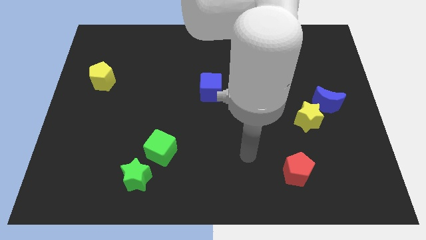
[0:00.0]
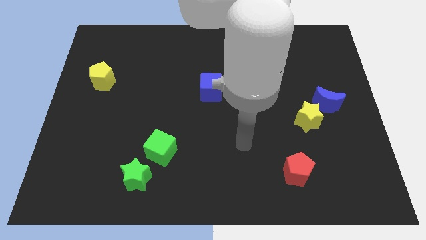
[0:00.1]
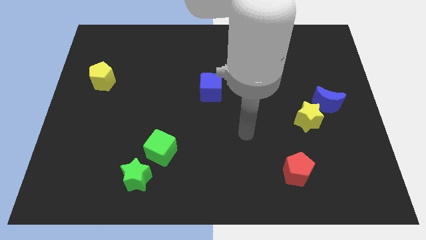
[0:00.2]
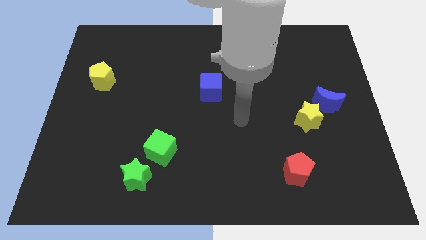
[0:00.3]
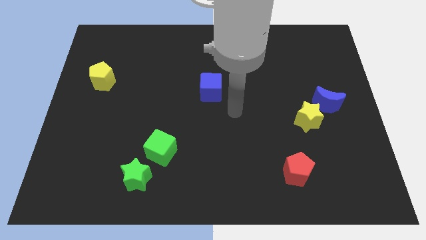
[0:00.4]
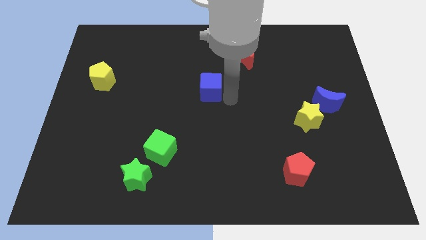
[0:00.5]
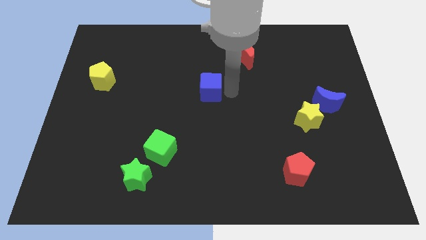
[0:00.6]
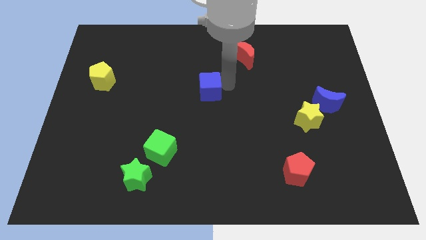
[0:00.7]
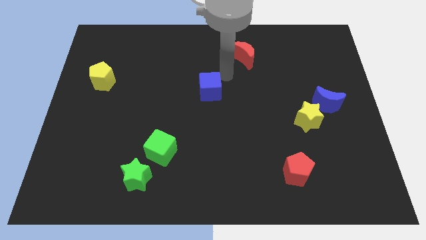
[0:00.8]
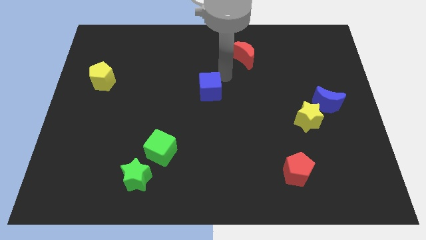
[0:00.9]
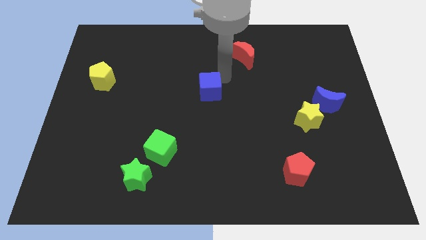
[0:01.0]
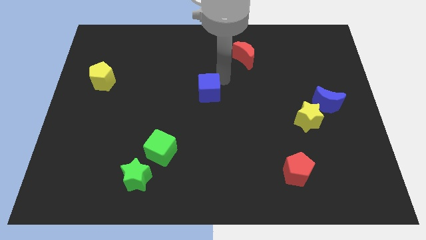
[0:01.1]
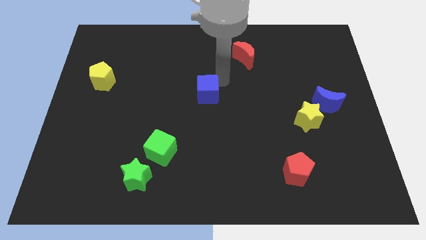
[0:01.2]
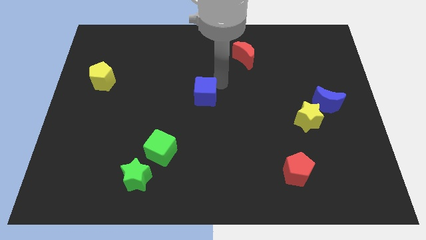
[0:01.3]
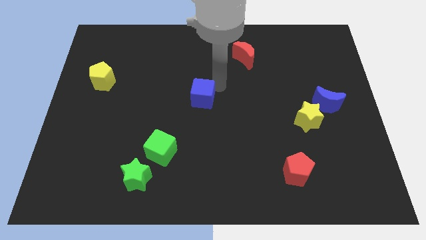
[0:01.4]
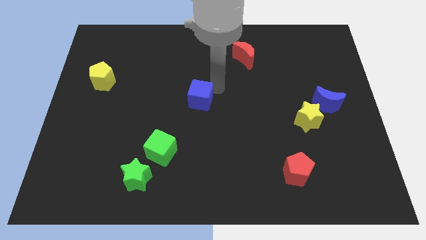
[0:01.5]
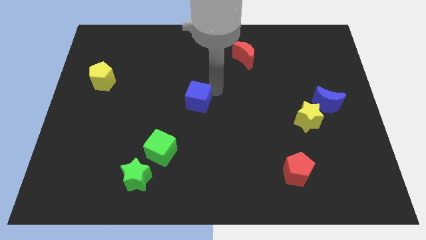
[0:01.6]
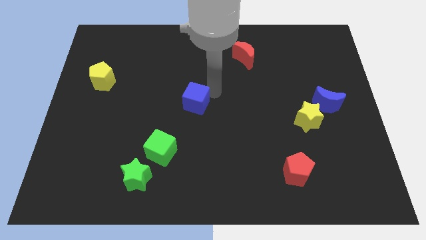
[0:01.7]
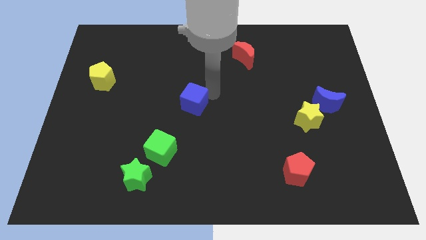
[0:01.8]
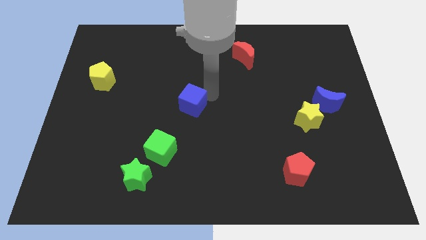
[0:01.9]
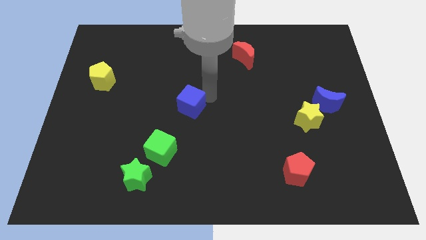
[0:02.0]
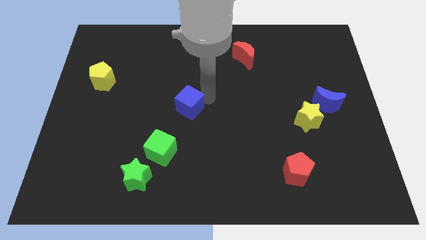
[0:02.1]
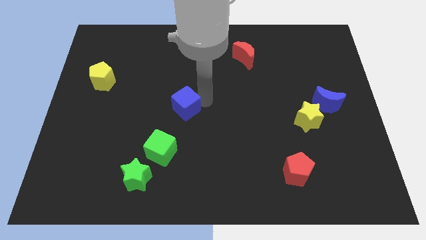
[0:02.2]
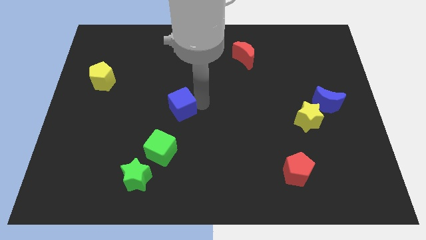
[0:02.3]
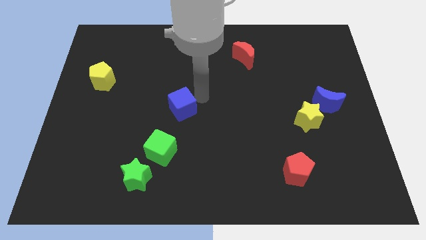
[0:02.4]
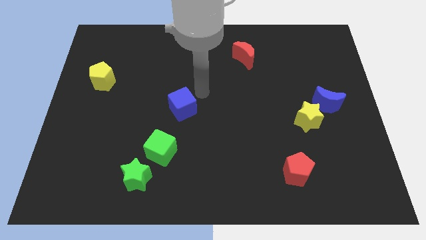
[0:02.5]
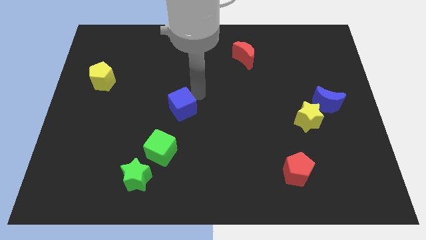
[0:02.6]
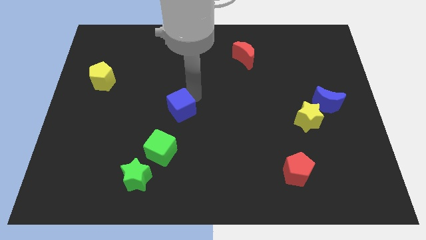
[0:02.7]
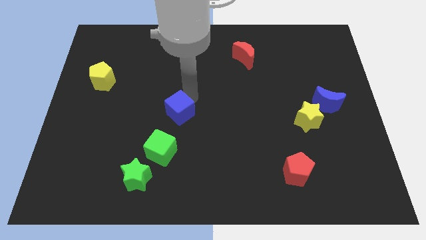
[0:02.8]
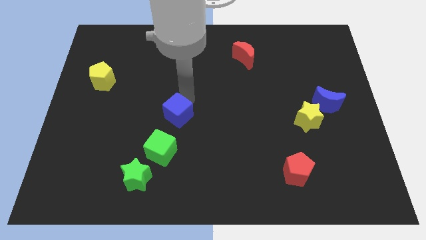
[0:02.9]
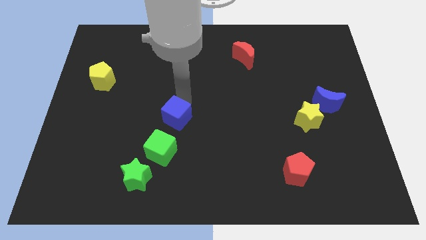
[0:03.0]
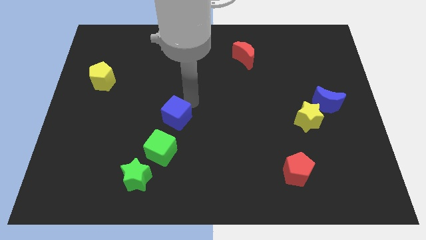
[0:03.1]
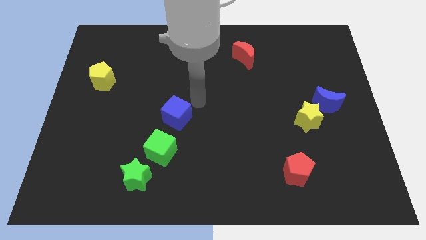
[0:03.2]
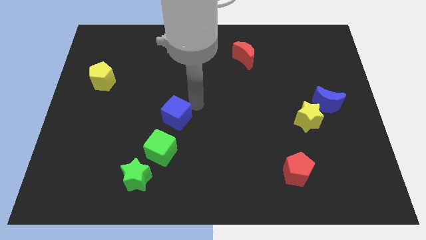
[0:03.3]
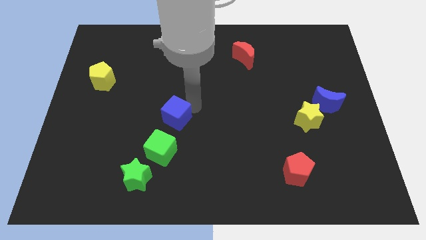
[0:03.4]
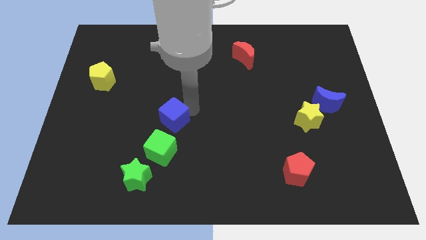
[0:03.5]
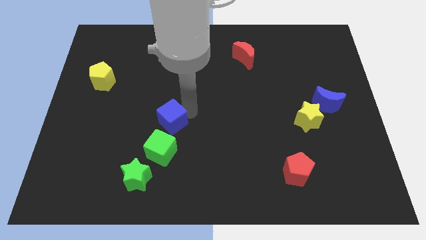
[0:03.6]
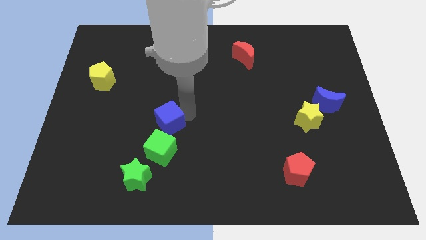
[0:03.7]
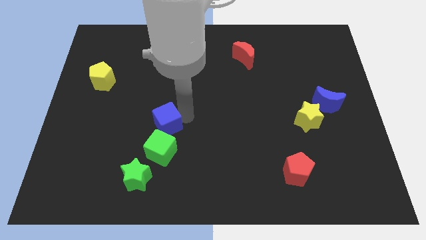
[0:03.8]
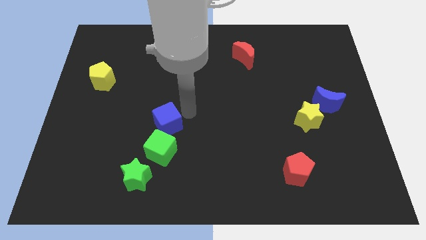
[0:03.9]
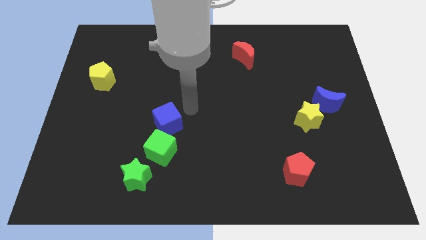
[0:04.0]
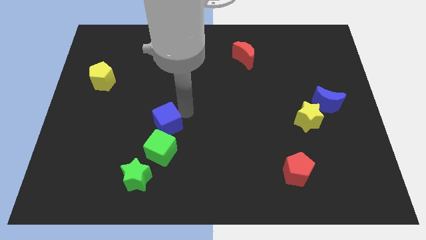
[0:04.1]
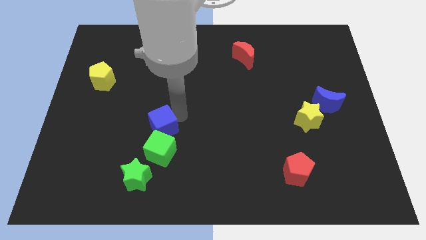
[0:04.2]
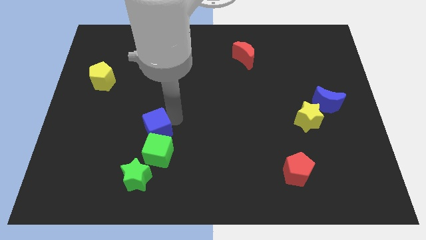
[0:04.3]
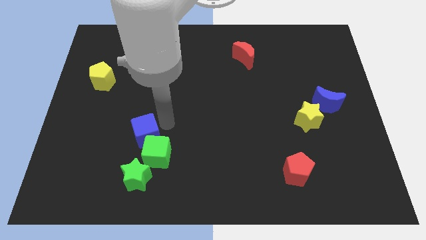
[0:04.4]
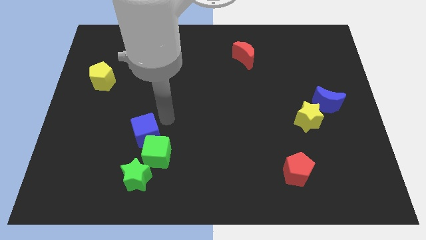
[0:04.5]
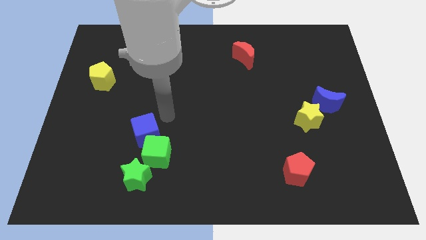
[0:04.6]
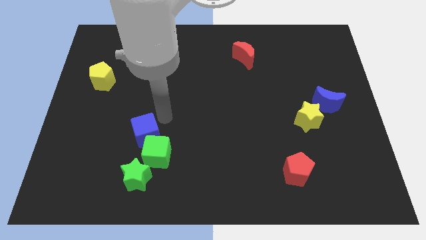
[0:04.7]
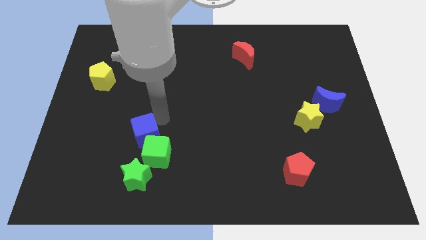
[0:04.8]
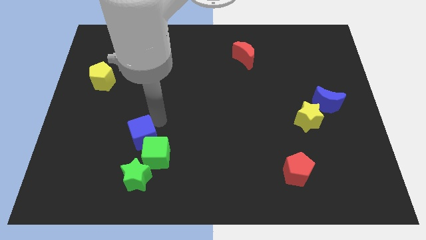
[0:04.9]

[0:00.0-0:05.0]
move the blue cube down and then left

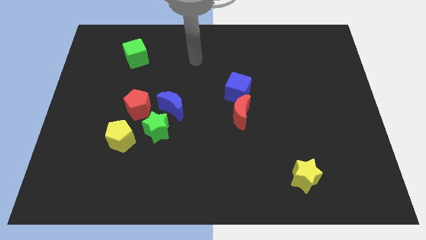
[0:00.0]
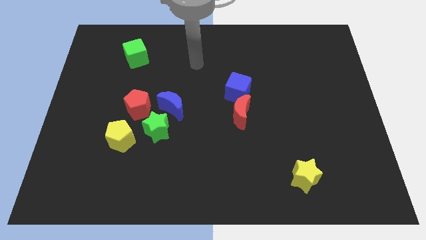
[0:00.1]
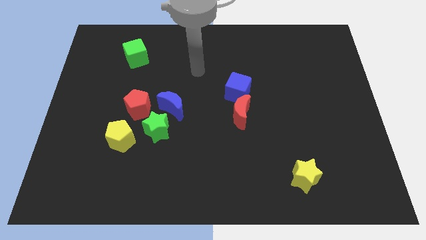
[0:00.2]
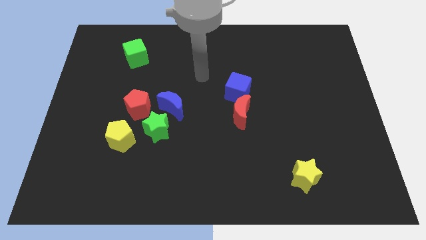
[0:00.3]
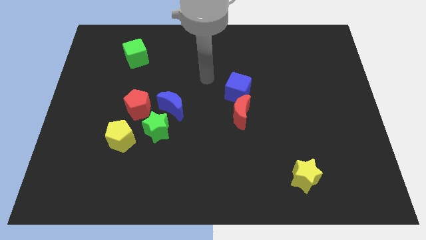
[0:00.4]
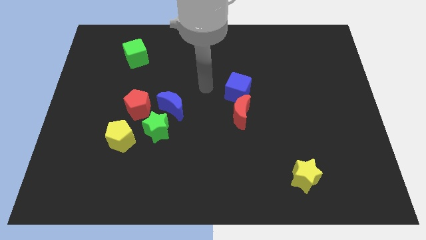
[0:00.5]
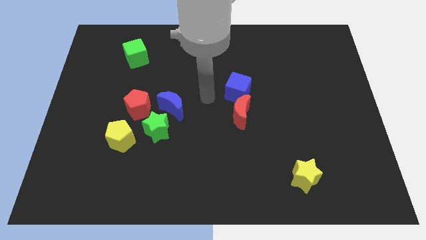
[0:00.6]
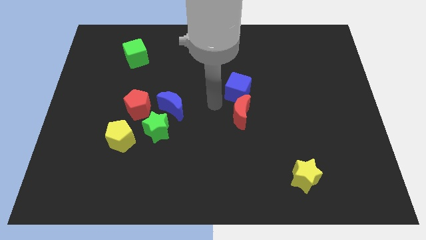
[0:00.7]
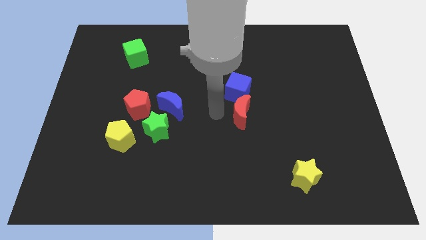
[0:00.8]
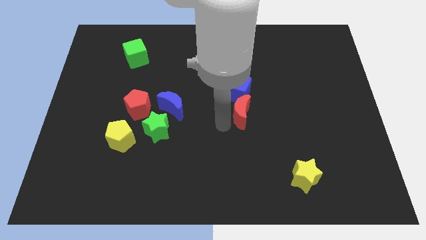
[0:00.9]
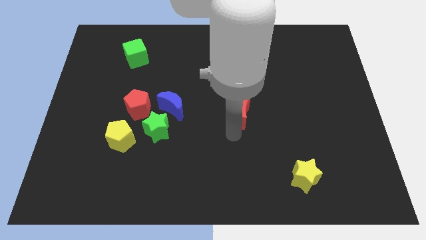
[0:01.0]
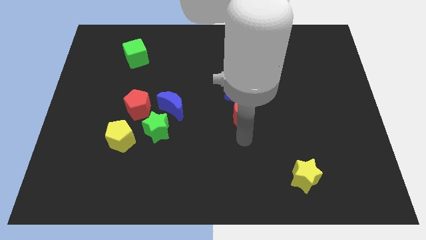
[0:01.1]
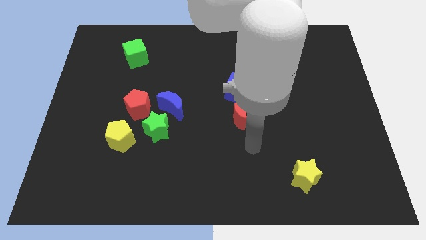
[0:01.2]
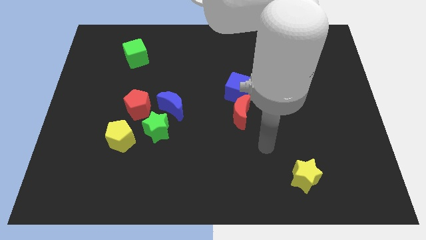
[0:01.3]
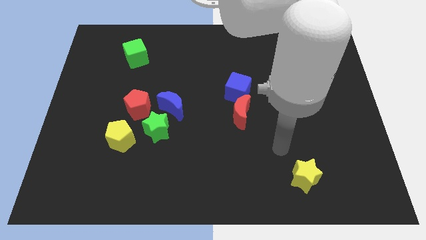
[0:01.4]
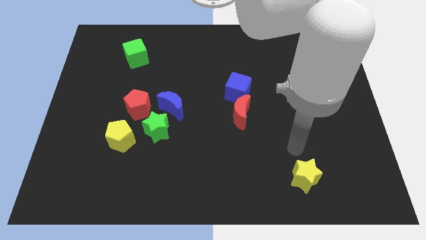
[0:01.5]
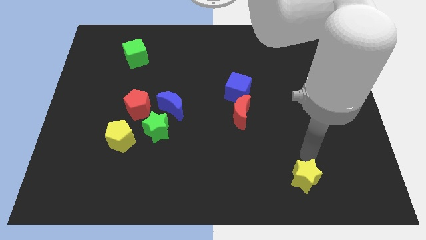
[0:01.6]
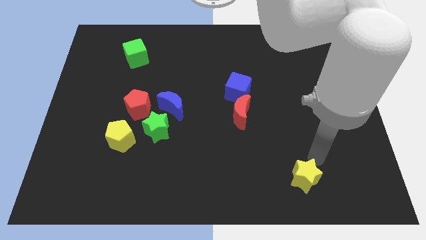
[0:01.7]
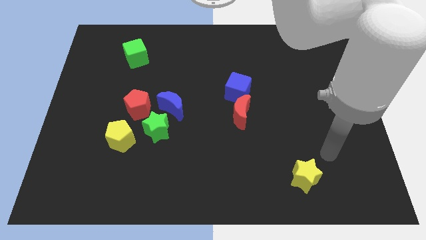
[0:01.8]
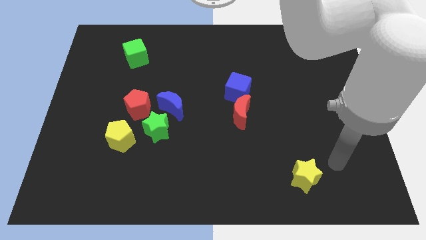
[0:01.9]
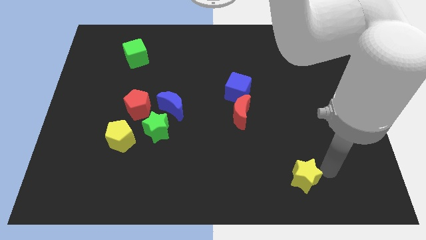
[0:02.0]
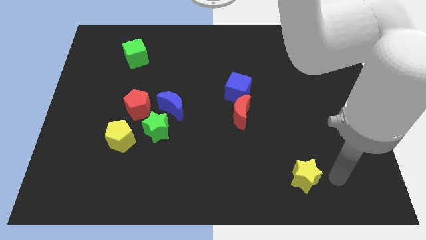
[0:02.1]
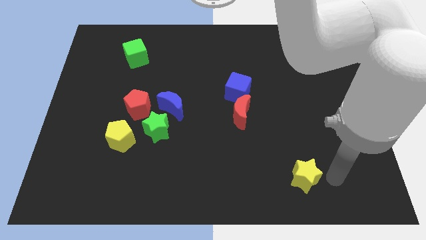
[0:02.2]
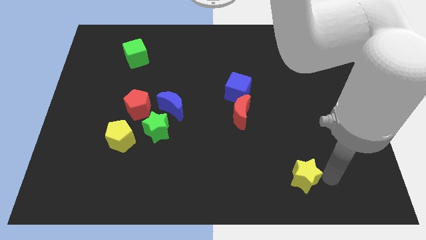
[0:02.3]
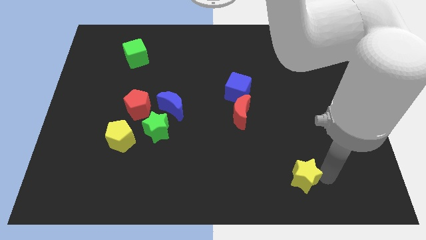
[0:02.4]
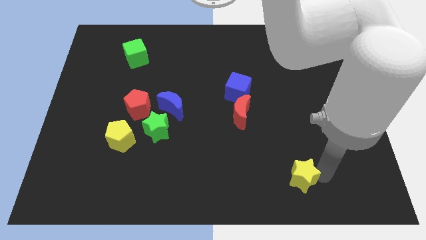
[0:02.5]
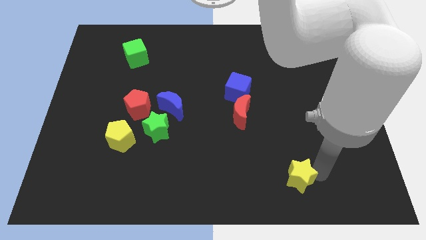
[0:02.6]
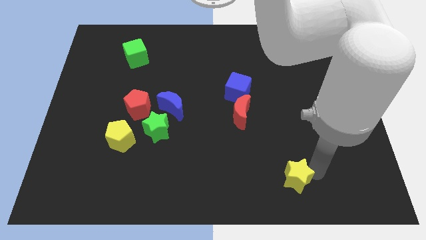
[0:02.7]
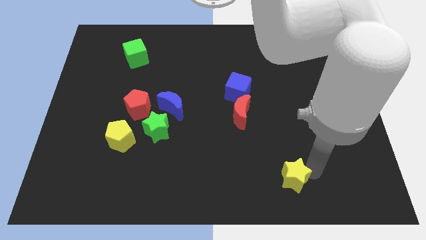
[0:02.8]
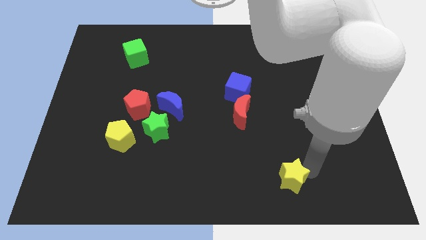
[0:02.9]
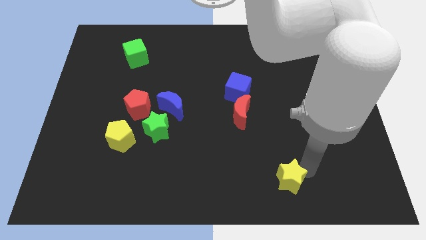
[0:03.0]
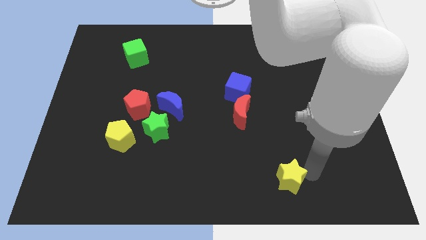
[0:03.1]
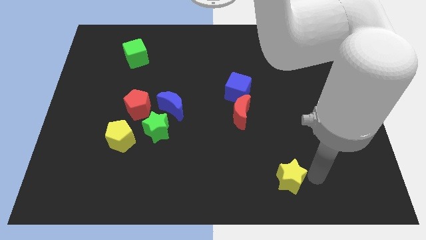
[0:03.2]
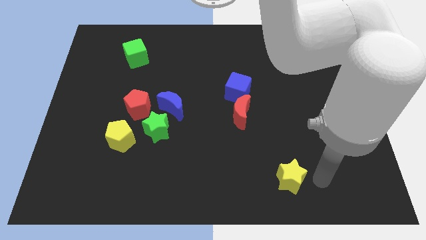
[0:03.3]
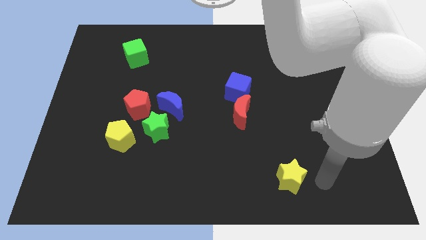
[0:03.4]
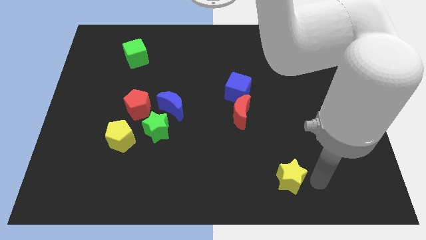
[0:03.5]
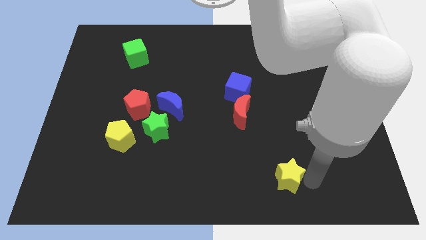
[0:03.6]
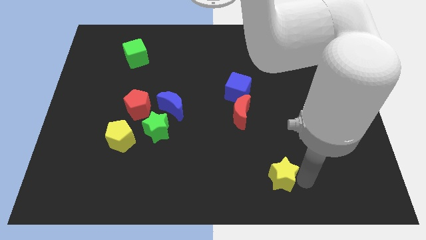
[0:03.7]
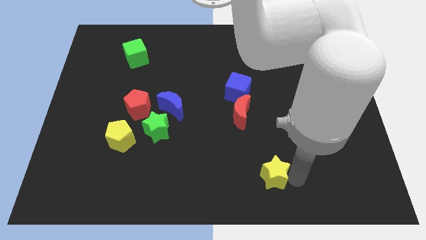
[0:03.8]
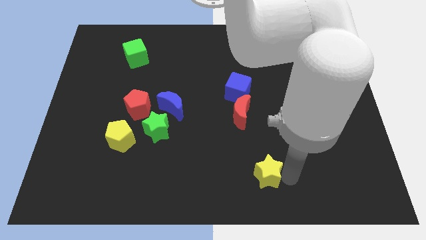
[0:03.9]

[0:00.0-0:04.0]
slightly move the yellow star to the left
